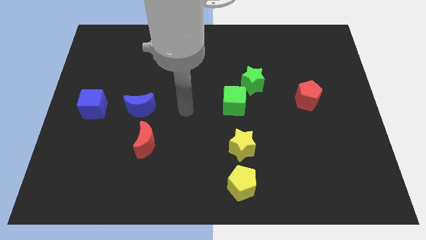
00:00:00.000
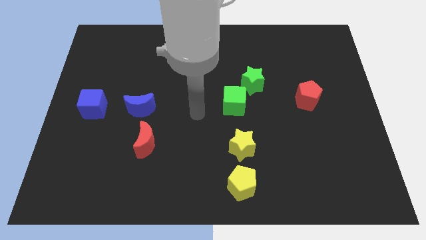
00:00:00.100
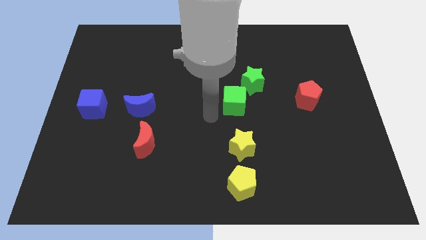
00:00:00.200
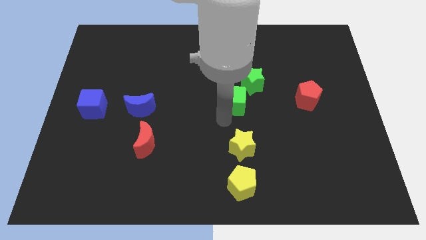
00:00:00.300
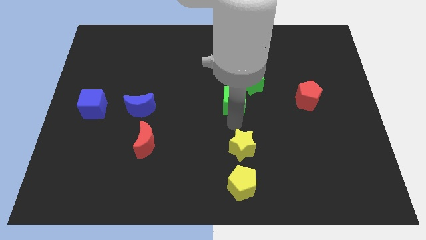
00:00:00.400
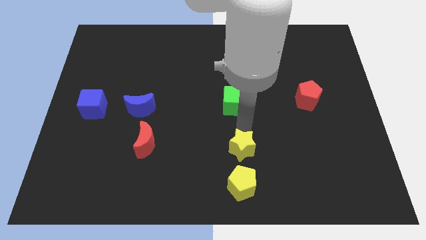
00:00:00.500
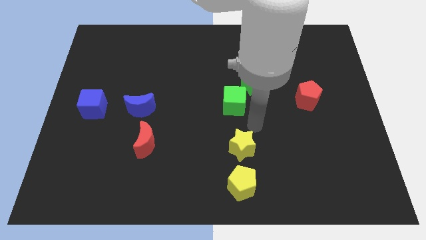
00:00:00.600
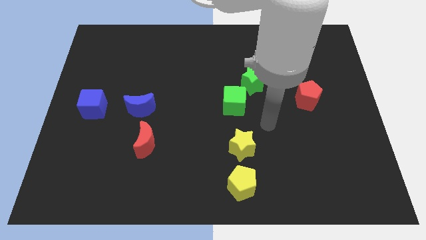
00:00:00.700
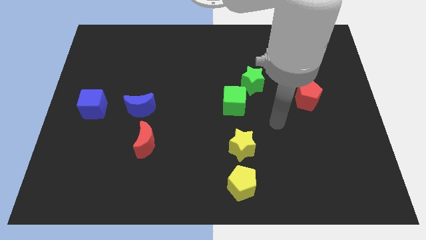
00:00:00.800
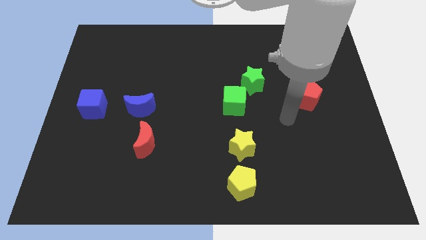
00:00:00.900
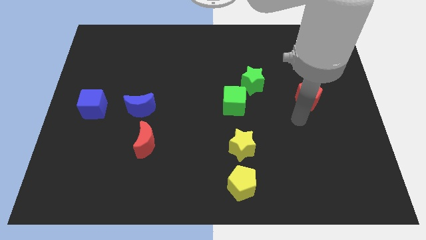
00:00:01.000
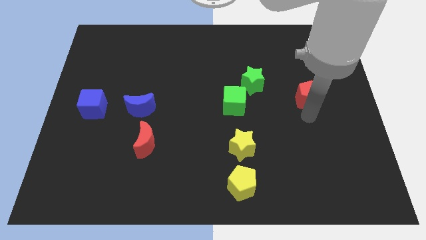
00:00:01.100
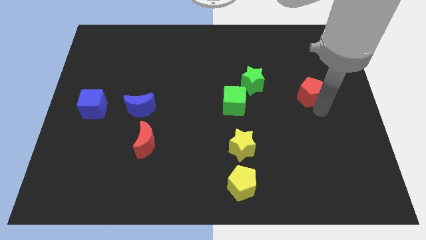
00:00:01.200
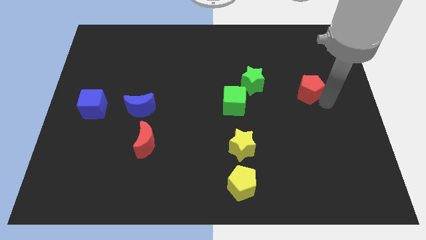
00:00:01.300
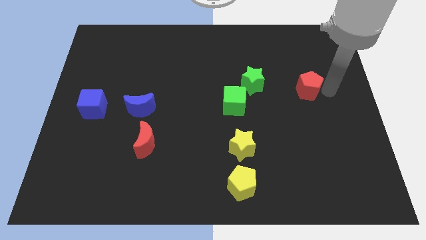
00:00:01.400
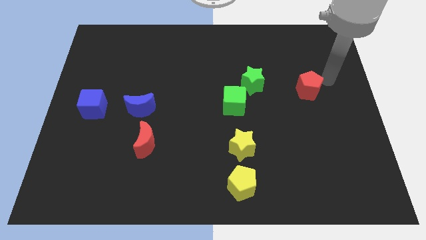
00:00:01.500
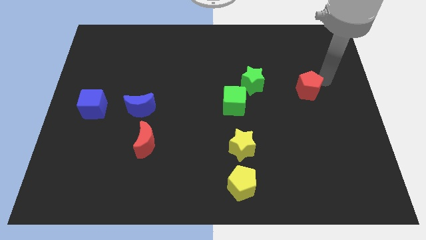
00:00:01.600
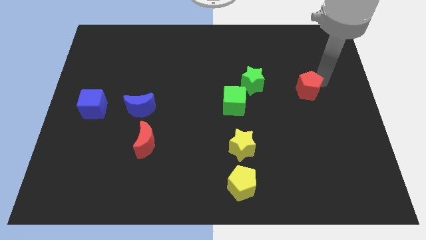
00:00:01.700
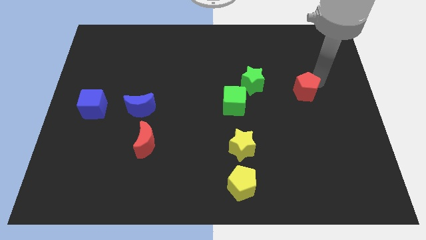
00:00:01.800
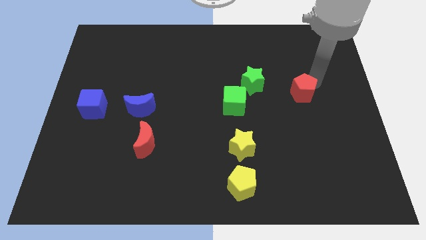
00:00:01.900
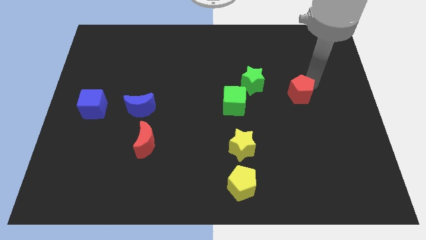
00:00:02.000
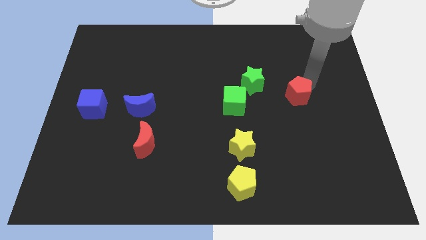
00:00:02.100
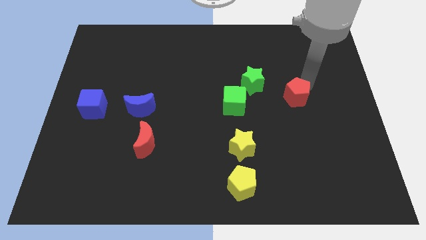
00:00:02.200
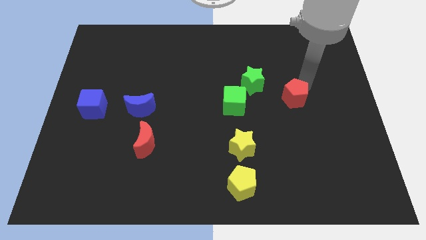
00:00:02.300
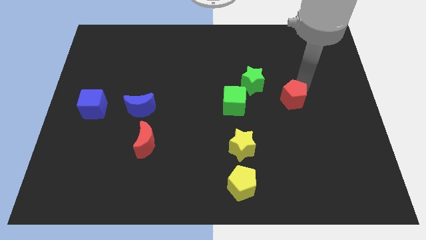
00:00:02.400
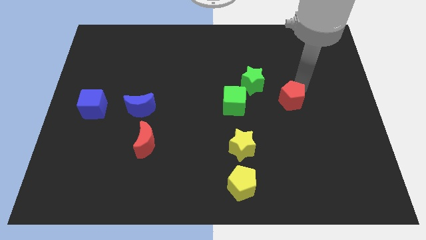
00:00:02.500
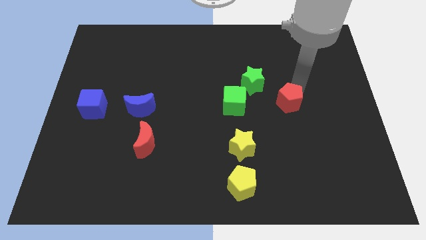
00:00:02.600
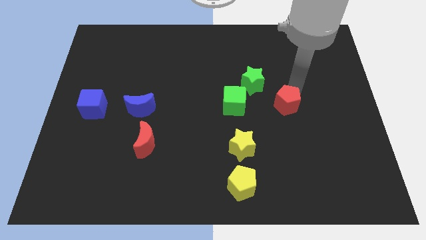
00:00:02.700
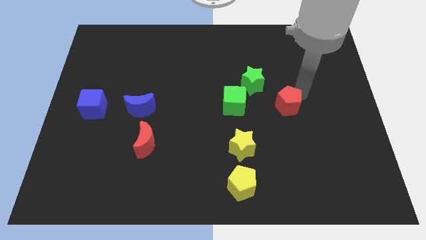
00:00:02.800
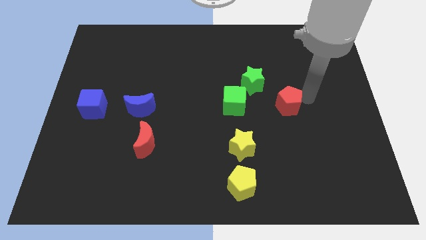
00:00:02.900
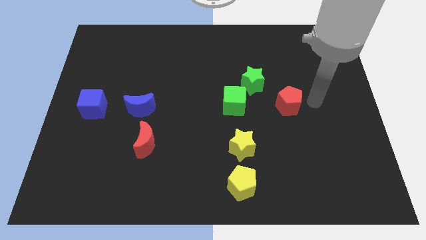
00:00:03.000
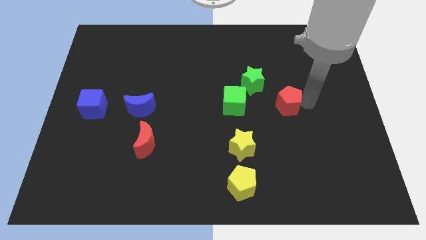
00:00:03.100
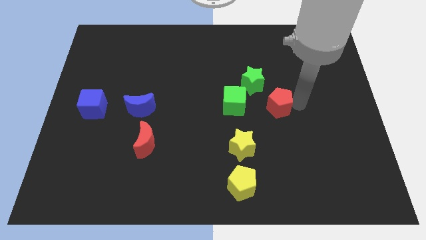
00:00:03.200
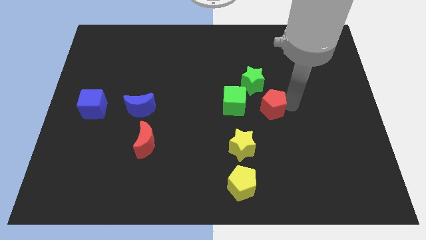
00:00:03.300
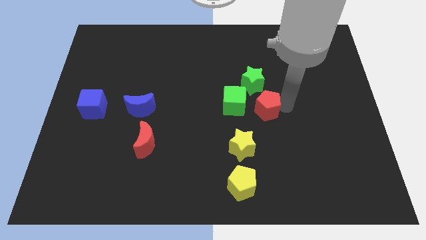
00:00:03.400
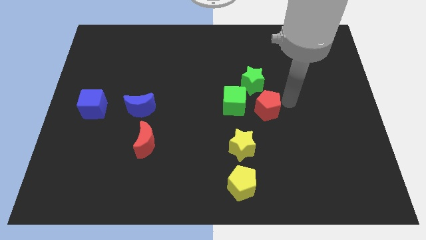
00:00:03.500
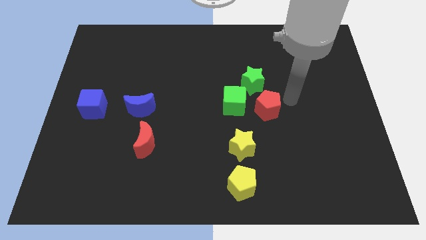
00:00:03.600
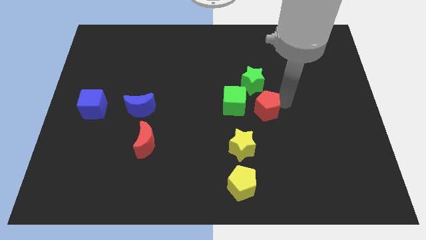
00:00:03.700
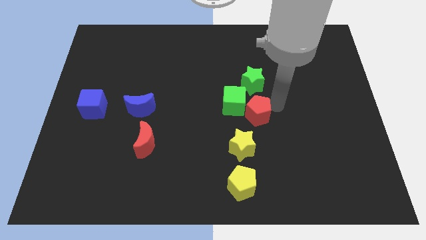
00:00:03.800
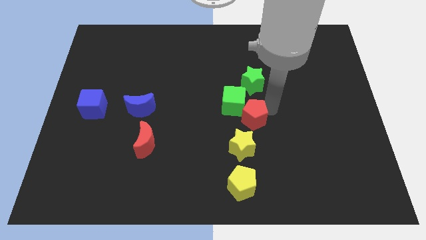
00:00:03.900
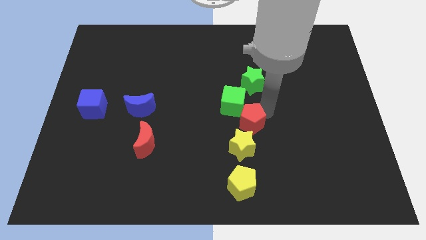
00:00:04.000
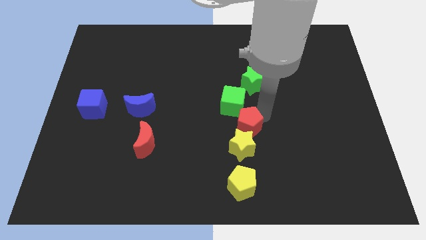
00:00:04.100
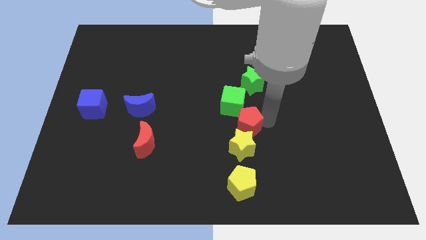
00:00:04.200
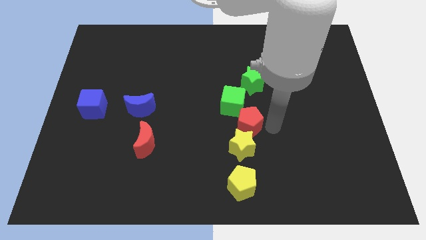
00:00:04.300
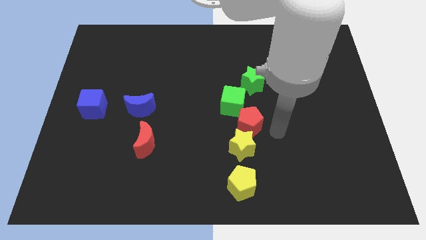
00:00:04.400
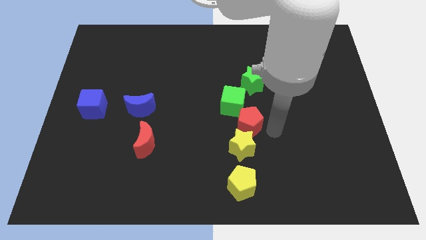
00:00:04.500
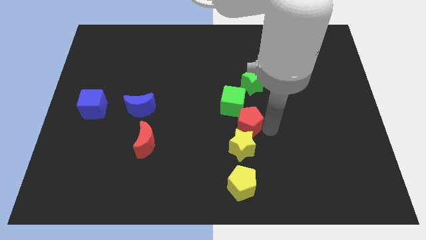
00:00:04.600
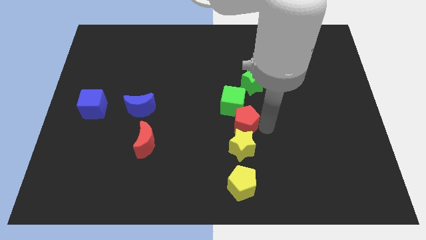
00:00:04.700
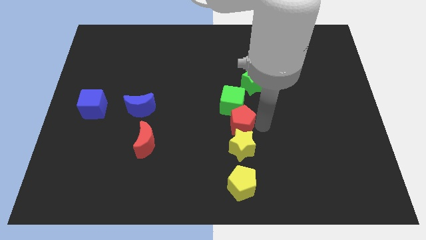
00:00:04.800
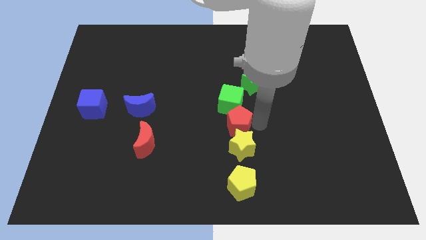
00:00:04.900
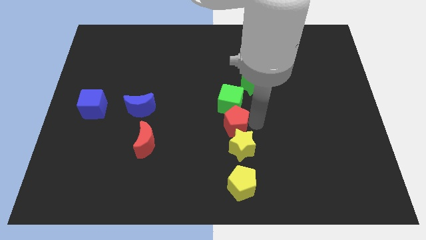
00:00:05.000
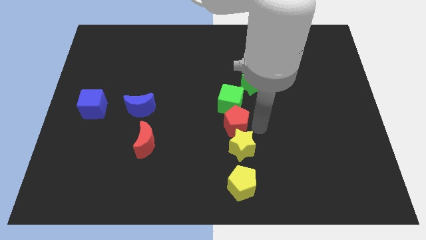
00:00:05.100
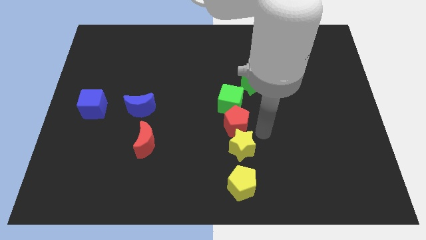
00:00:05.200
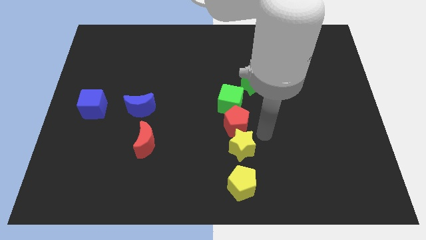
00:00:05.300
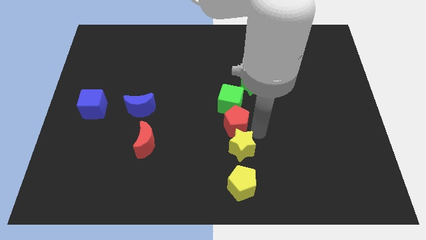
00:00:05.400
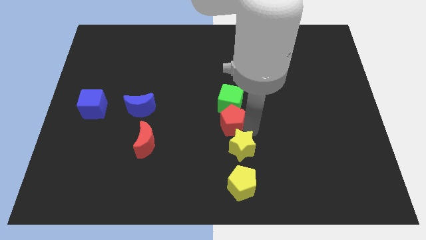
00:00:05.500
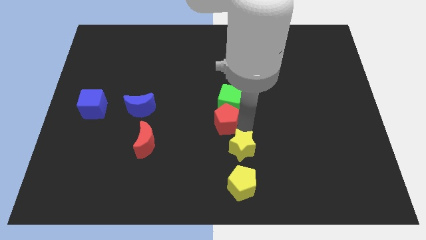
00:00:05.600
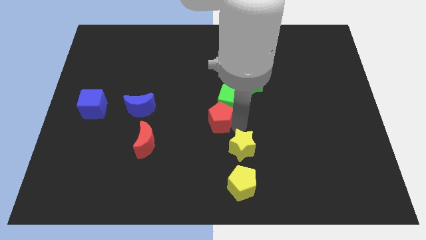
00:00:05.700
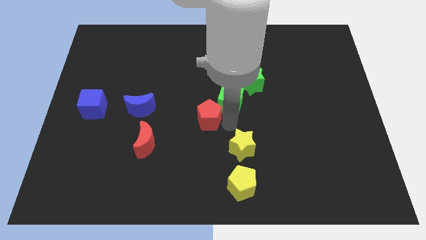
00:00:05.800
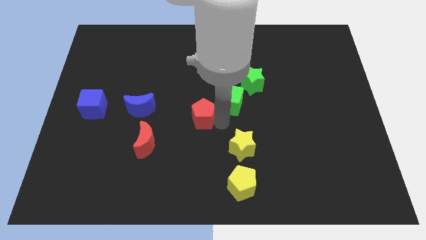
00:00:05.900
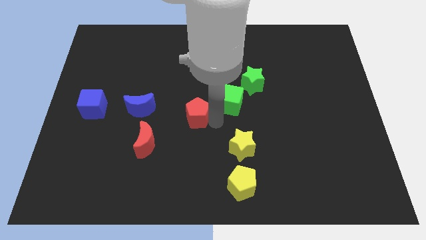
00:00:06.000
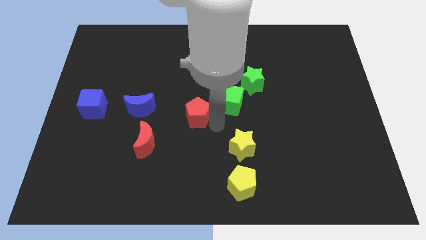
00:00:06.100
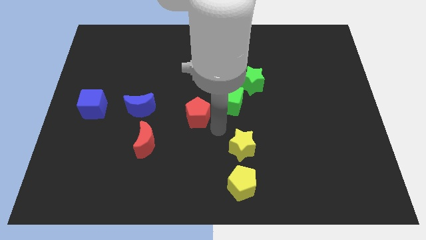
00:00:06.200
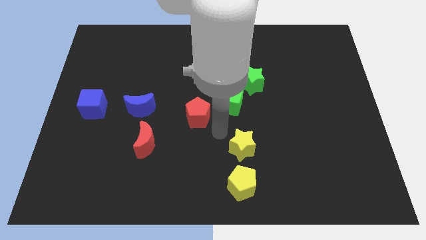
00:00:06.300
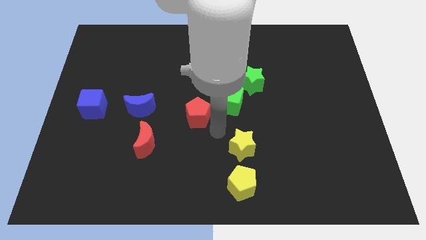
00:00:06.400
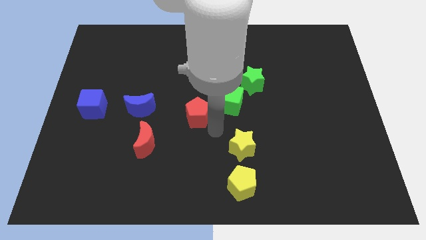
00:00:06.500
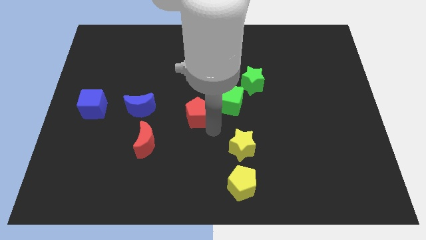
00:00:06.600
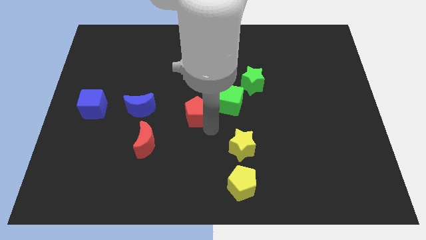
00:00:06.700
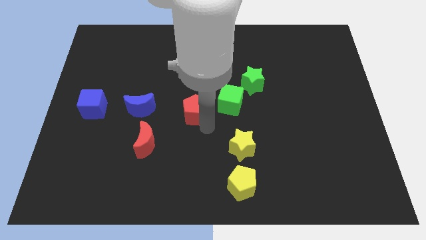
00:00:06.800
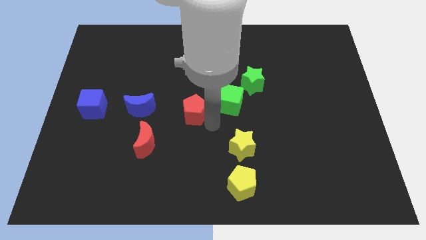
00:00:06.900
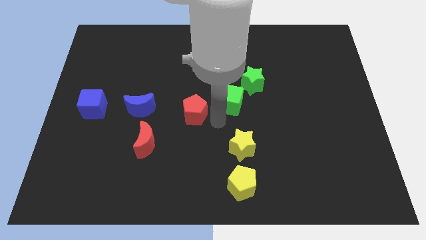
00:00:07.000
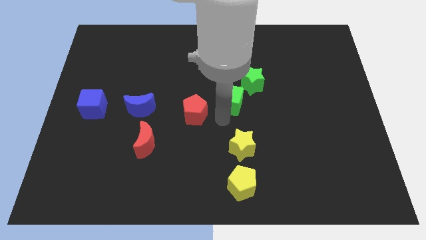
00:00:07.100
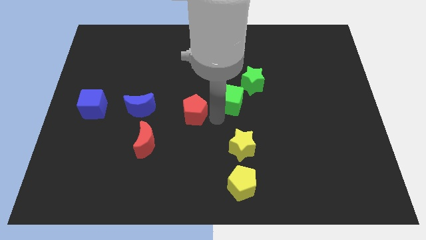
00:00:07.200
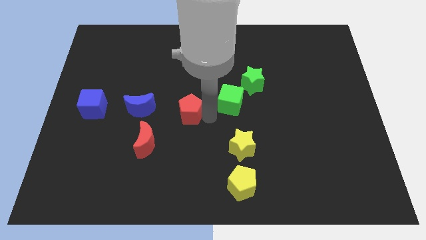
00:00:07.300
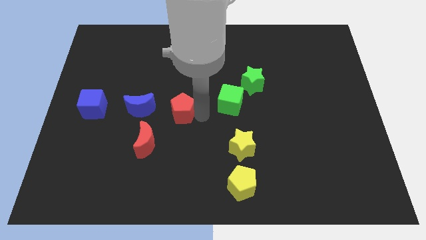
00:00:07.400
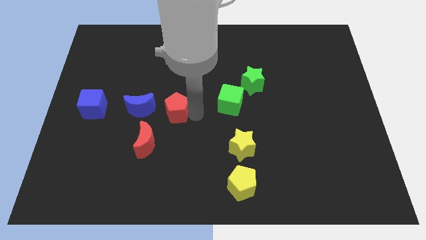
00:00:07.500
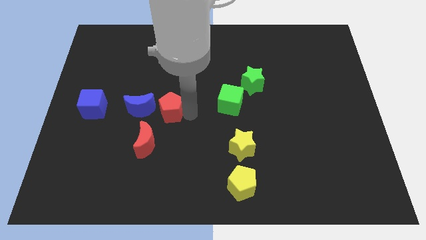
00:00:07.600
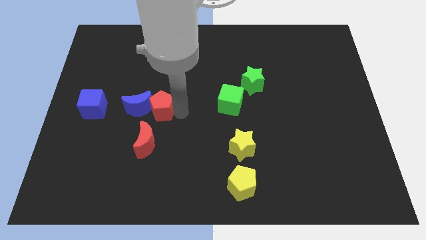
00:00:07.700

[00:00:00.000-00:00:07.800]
push the red pentagon to the right side of the blue cube
